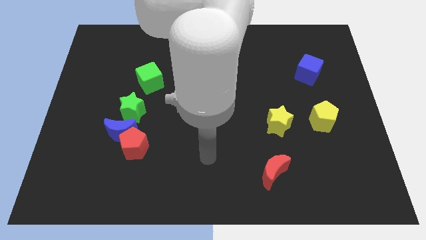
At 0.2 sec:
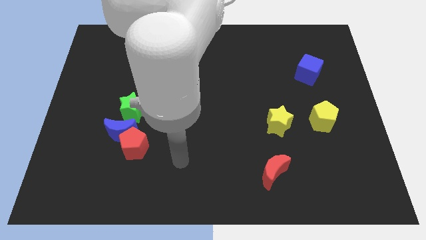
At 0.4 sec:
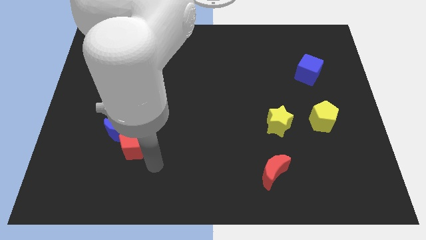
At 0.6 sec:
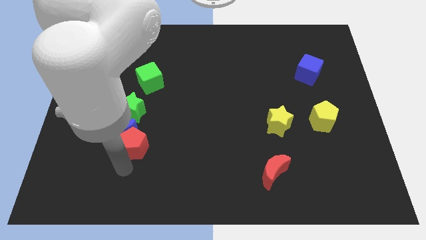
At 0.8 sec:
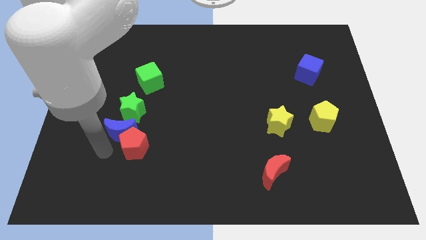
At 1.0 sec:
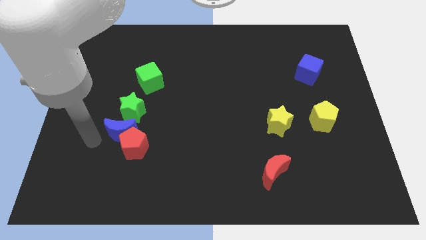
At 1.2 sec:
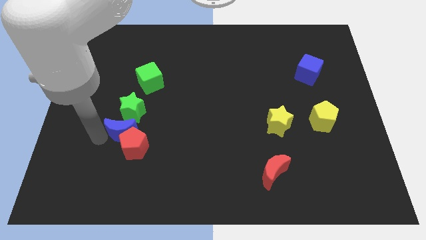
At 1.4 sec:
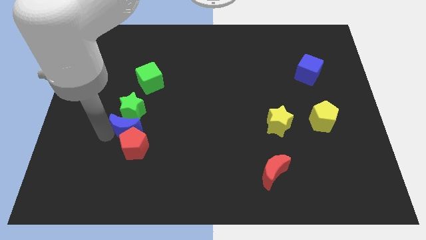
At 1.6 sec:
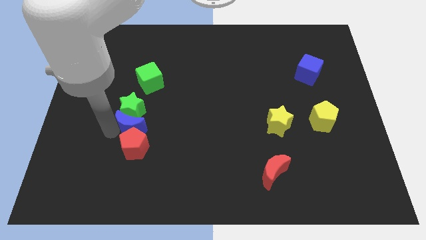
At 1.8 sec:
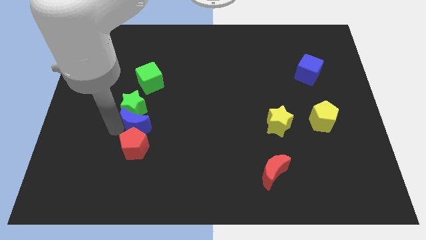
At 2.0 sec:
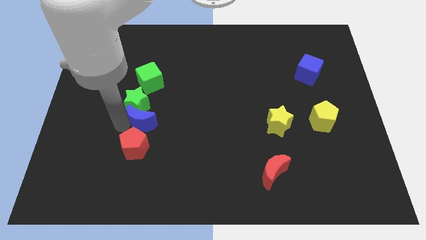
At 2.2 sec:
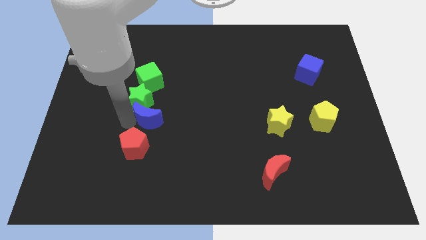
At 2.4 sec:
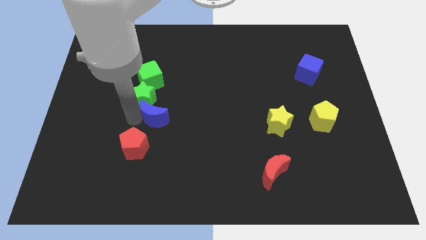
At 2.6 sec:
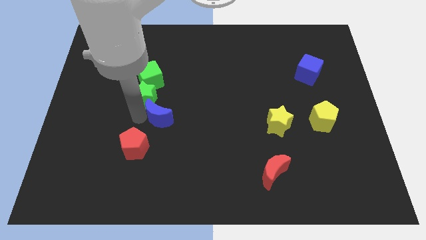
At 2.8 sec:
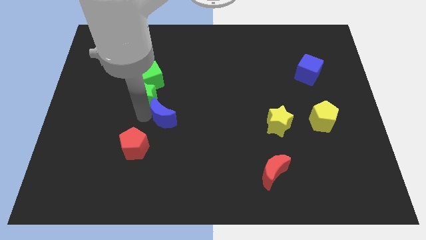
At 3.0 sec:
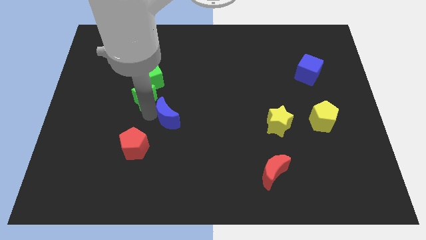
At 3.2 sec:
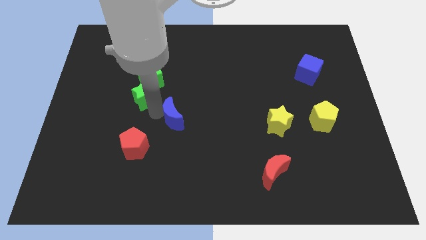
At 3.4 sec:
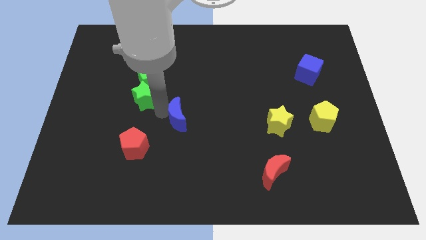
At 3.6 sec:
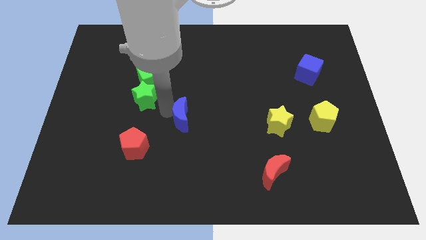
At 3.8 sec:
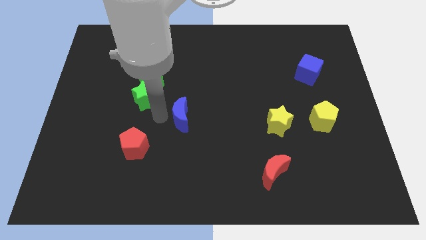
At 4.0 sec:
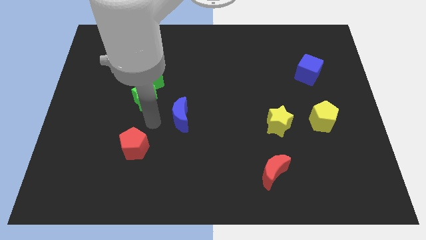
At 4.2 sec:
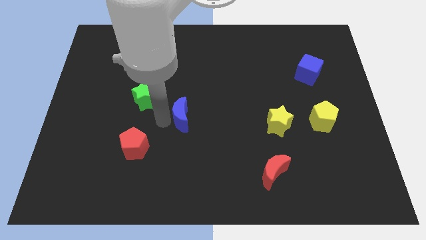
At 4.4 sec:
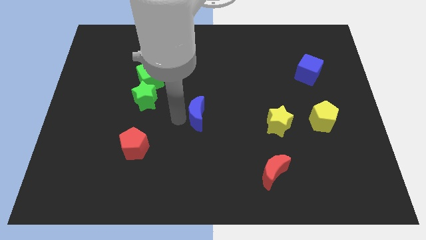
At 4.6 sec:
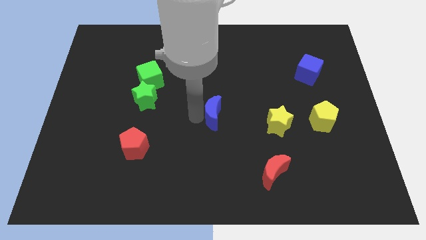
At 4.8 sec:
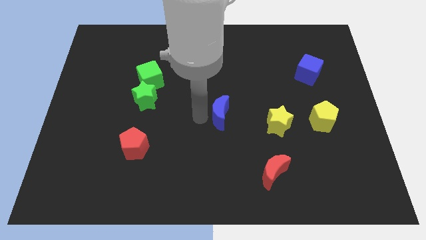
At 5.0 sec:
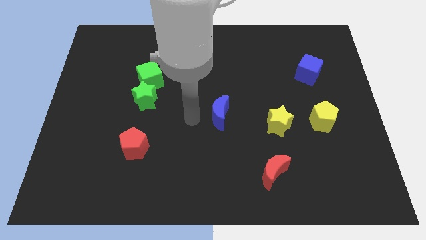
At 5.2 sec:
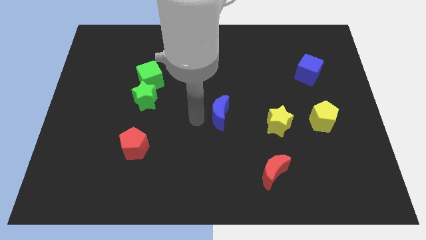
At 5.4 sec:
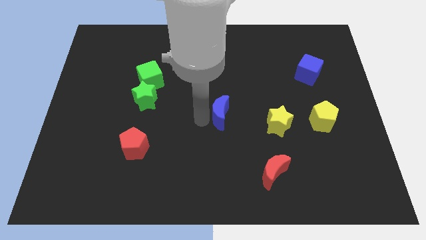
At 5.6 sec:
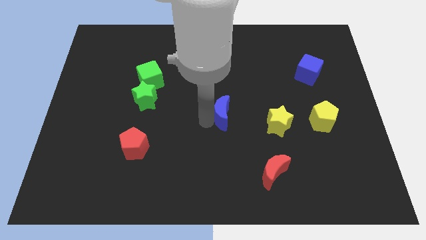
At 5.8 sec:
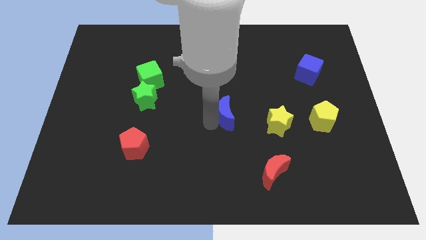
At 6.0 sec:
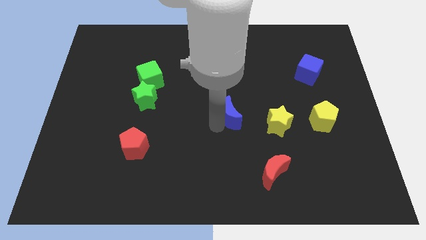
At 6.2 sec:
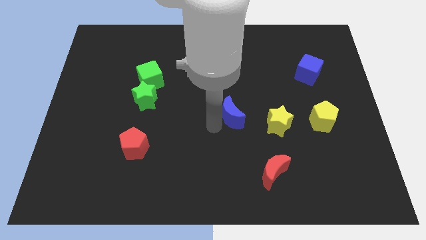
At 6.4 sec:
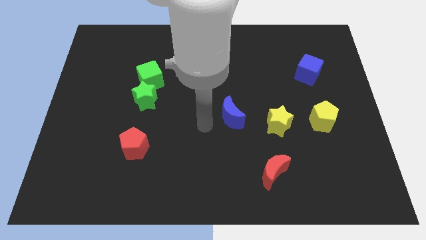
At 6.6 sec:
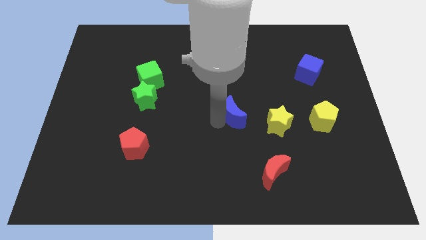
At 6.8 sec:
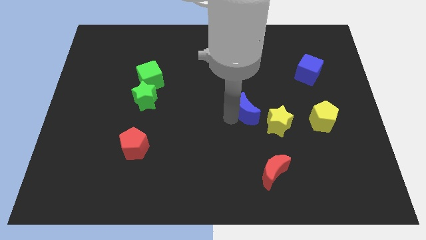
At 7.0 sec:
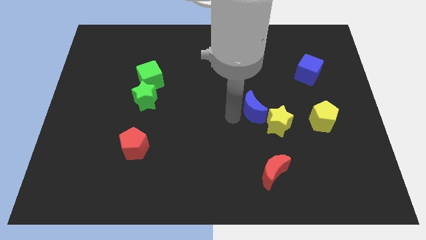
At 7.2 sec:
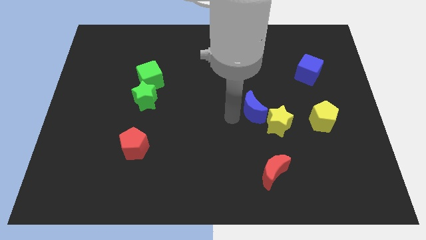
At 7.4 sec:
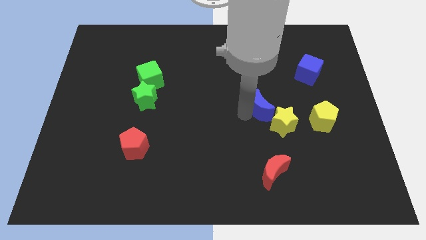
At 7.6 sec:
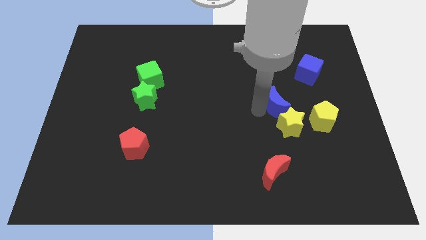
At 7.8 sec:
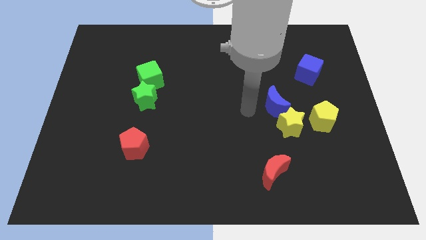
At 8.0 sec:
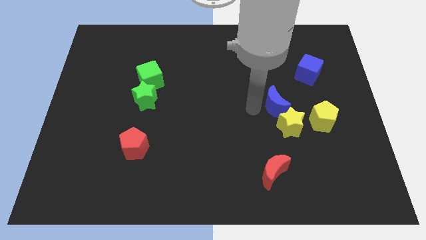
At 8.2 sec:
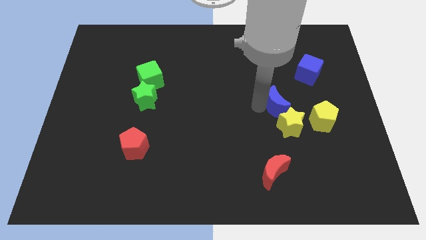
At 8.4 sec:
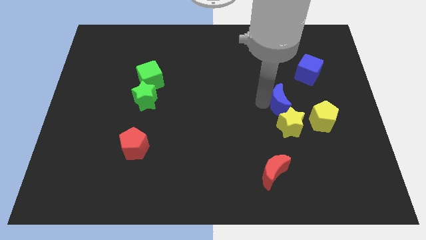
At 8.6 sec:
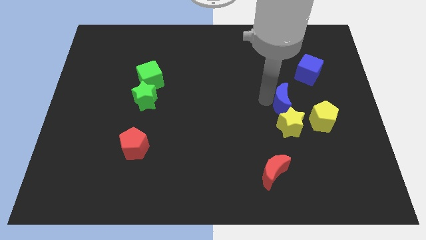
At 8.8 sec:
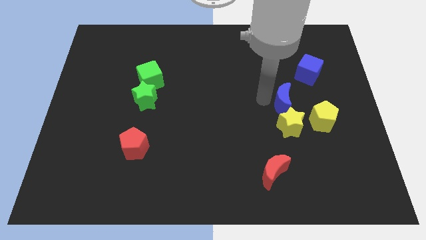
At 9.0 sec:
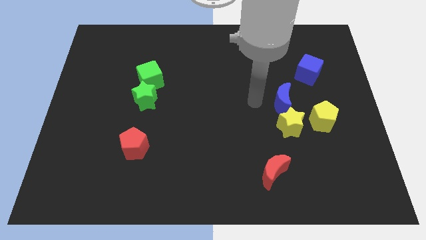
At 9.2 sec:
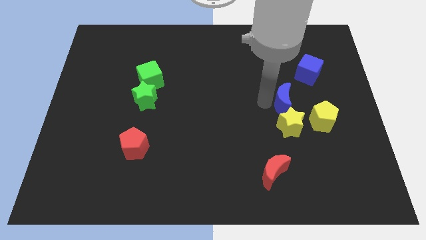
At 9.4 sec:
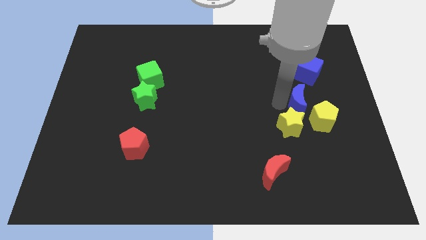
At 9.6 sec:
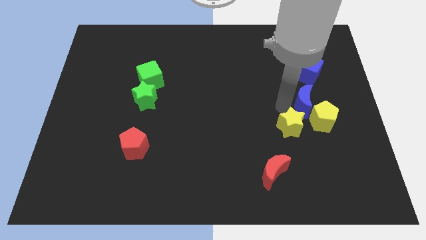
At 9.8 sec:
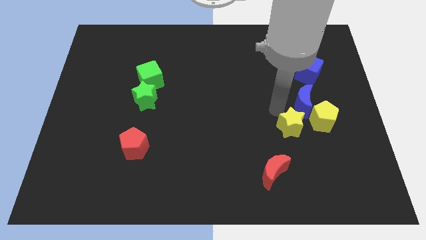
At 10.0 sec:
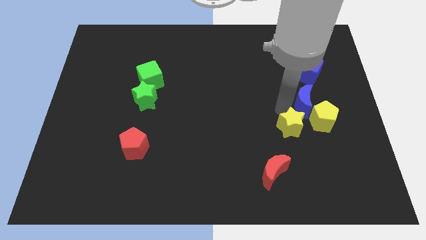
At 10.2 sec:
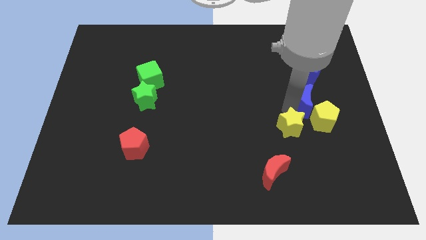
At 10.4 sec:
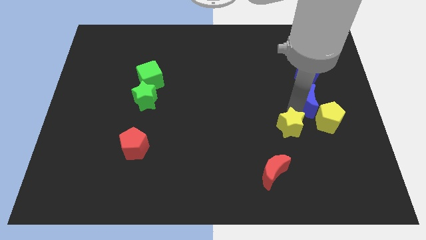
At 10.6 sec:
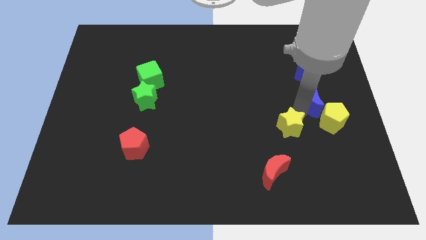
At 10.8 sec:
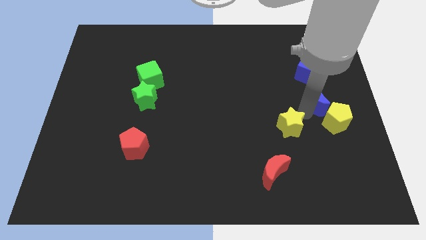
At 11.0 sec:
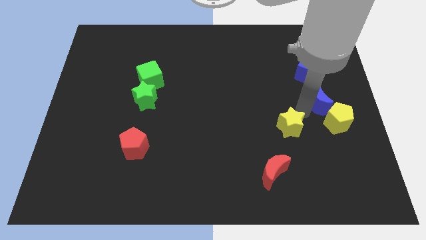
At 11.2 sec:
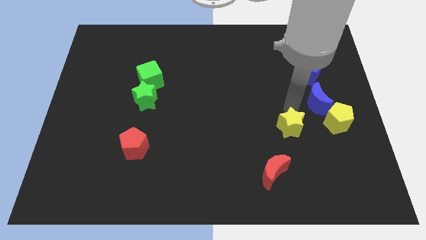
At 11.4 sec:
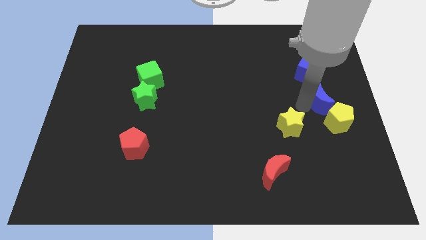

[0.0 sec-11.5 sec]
move the blue moon to the center right
